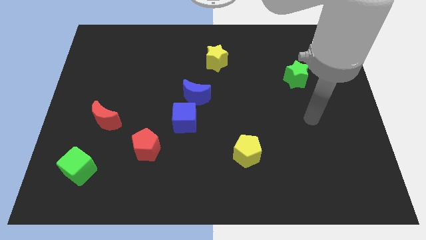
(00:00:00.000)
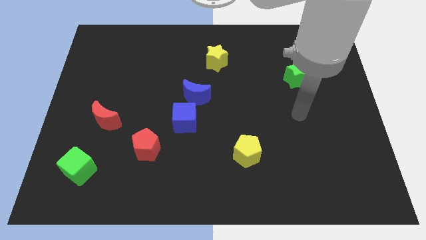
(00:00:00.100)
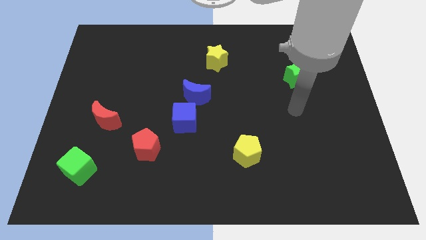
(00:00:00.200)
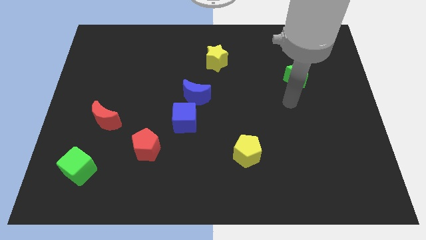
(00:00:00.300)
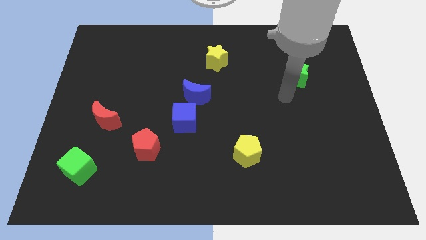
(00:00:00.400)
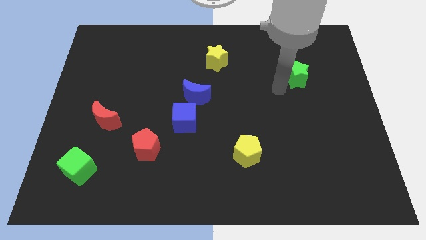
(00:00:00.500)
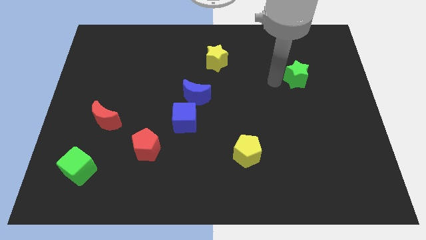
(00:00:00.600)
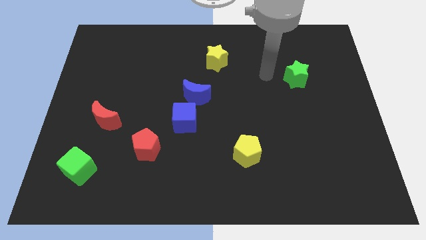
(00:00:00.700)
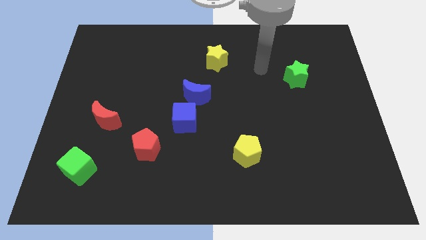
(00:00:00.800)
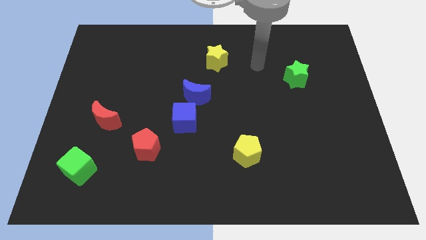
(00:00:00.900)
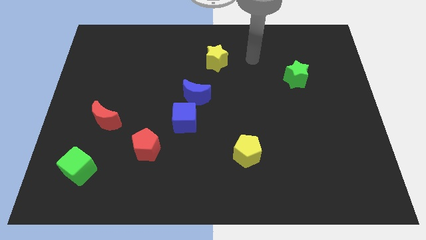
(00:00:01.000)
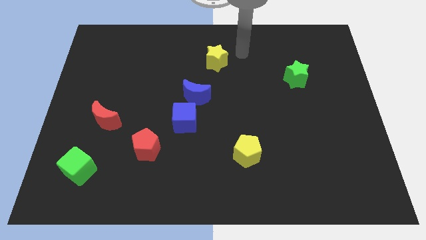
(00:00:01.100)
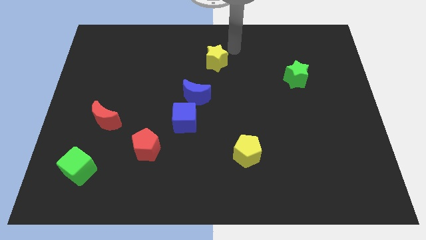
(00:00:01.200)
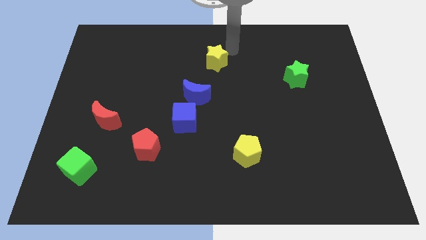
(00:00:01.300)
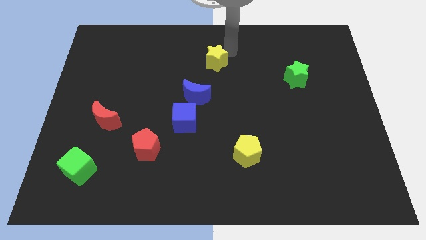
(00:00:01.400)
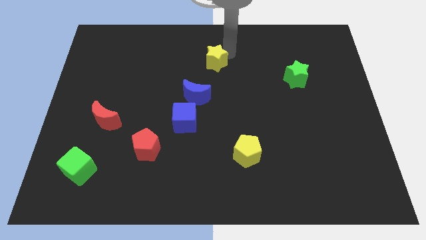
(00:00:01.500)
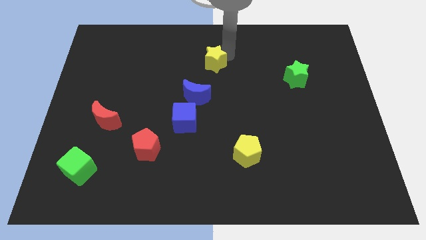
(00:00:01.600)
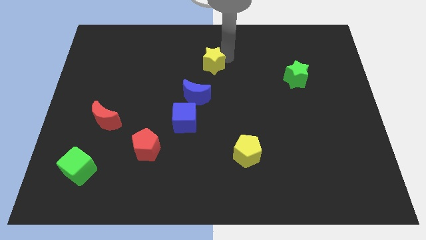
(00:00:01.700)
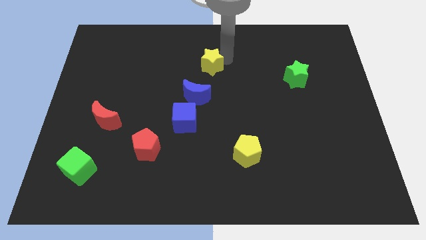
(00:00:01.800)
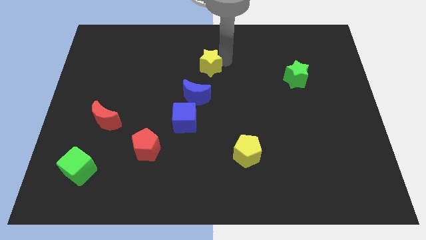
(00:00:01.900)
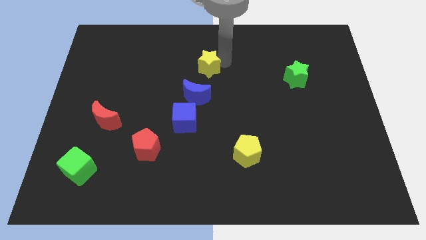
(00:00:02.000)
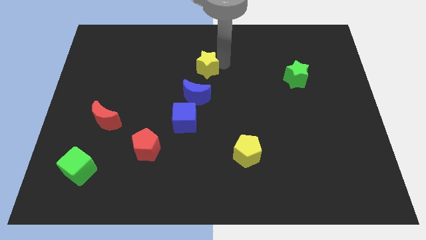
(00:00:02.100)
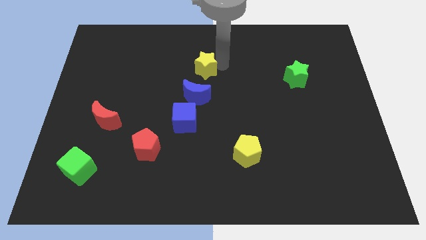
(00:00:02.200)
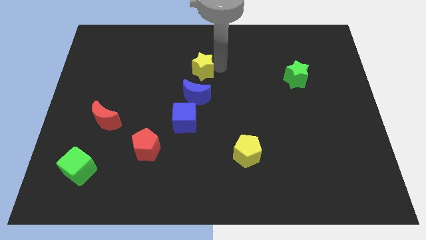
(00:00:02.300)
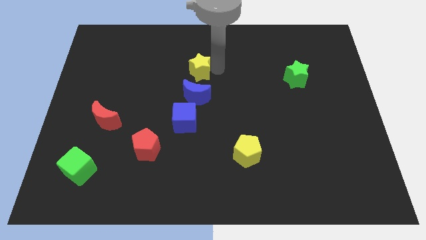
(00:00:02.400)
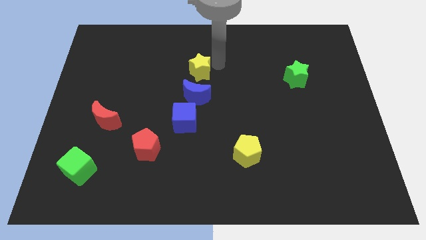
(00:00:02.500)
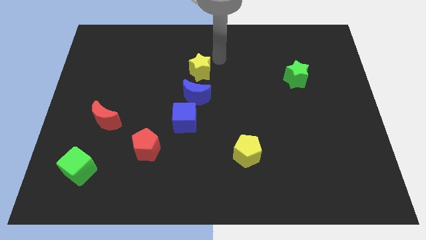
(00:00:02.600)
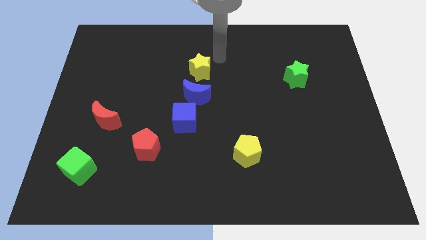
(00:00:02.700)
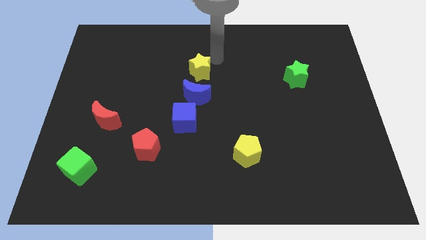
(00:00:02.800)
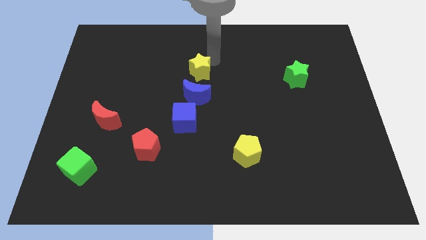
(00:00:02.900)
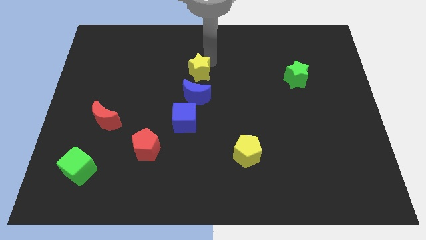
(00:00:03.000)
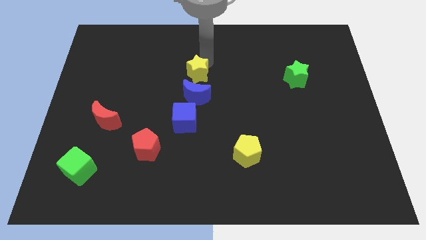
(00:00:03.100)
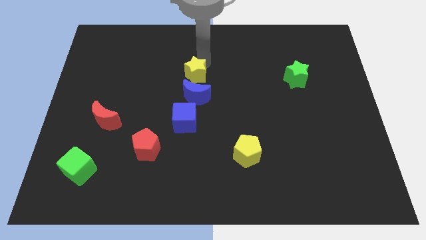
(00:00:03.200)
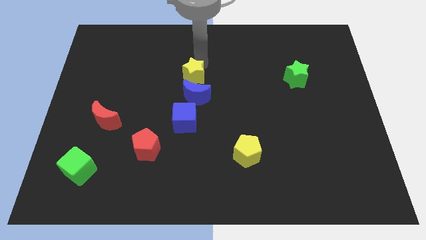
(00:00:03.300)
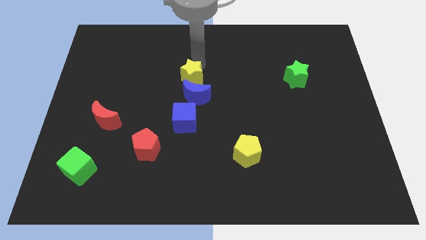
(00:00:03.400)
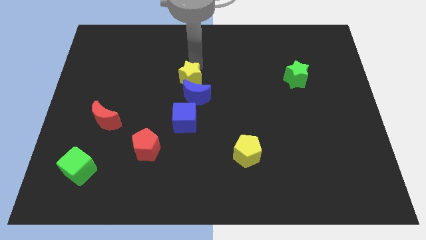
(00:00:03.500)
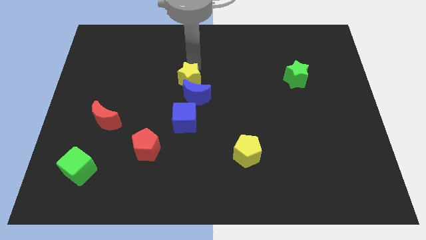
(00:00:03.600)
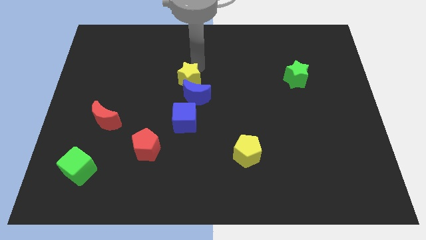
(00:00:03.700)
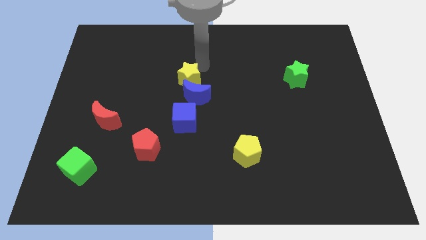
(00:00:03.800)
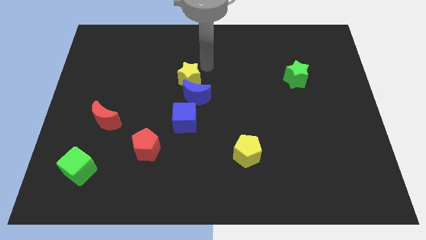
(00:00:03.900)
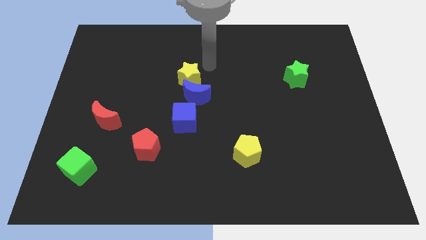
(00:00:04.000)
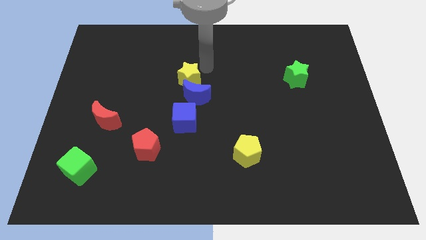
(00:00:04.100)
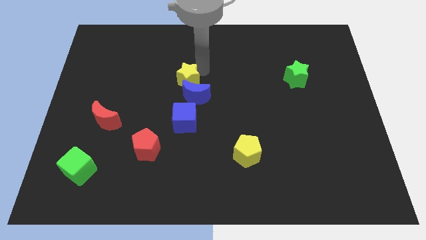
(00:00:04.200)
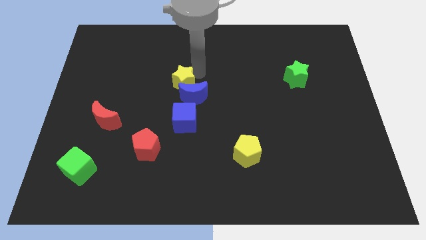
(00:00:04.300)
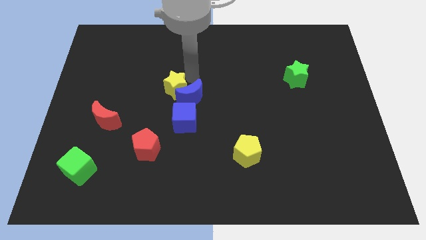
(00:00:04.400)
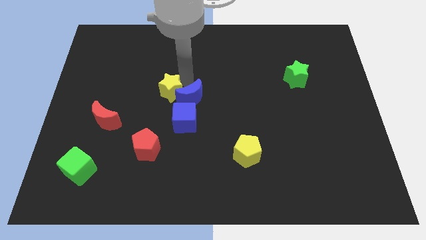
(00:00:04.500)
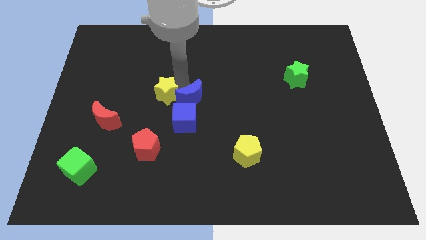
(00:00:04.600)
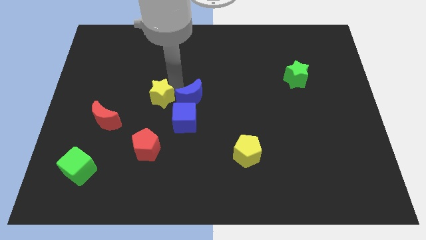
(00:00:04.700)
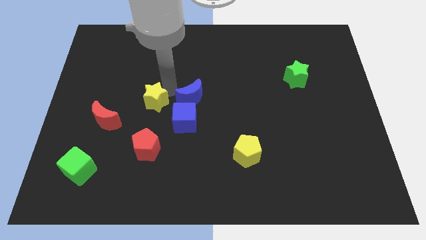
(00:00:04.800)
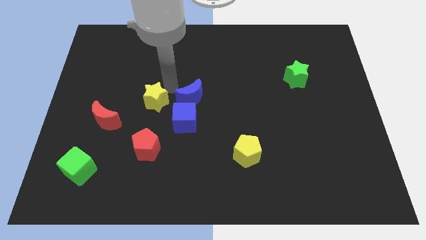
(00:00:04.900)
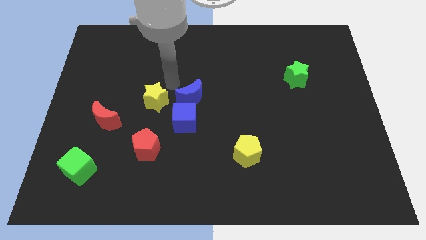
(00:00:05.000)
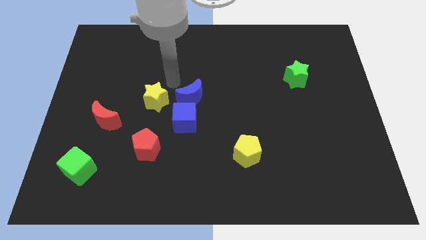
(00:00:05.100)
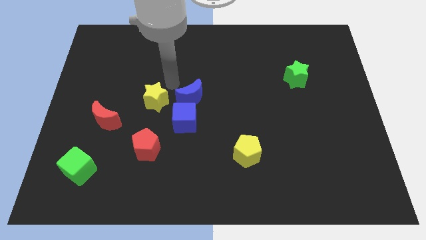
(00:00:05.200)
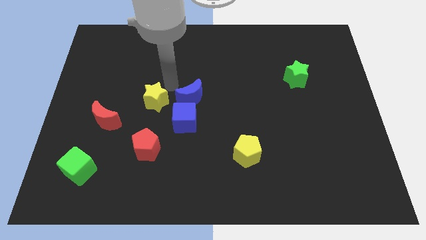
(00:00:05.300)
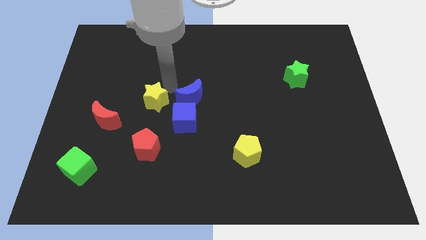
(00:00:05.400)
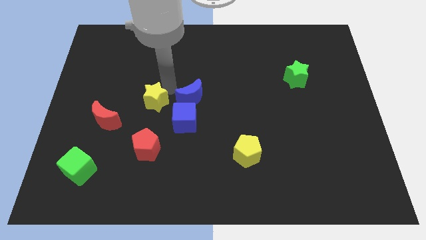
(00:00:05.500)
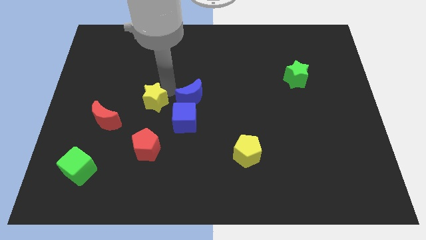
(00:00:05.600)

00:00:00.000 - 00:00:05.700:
move the yellow star diagonally down and left

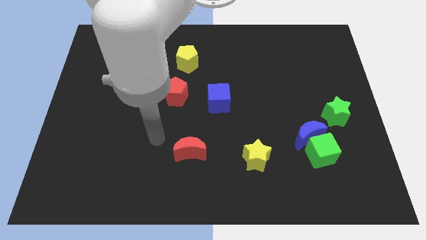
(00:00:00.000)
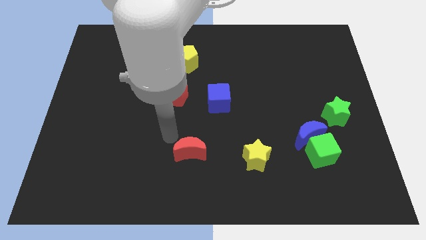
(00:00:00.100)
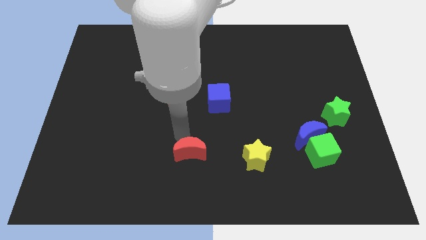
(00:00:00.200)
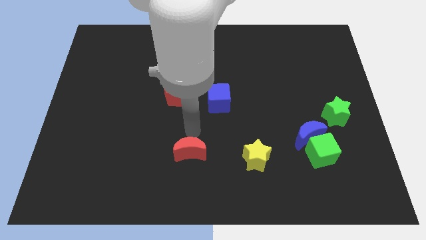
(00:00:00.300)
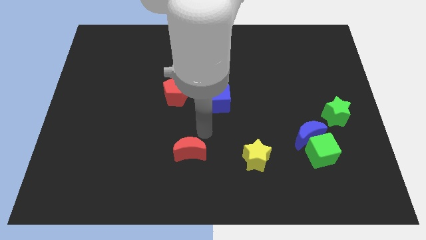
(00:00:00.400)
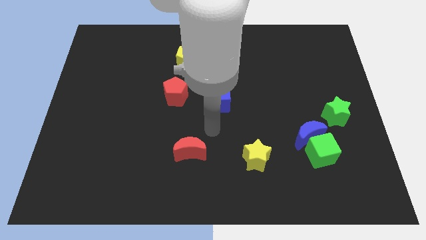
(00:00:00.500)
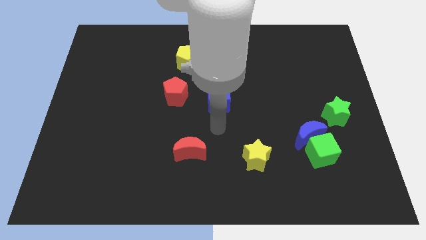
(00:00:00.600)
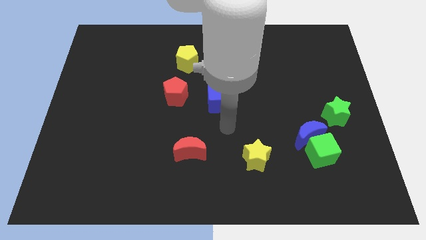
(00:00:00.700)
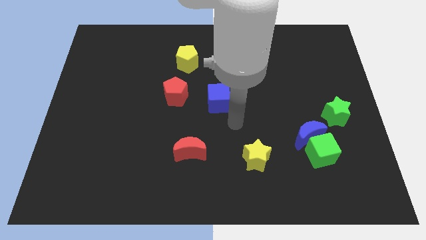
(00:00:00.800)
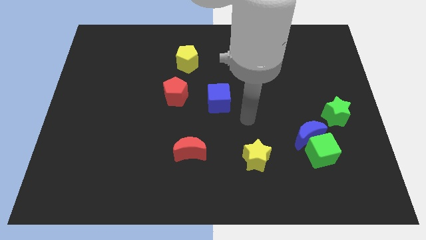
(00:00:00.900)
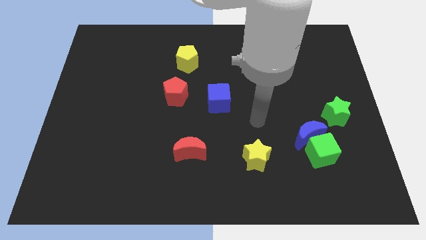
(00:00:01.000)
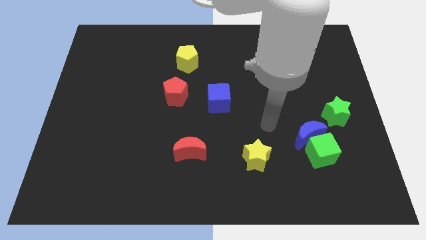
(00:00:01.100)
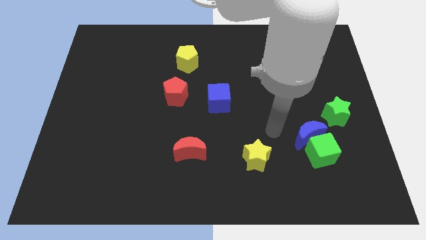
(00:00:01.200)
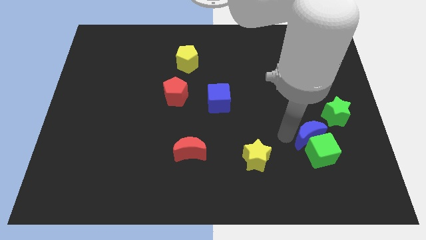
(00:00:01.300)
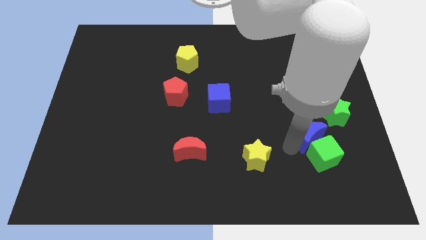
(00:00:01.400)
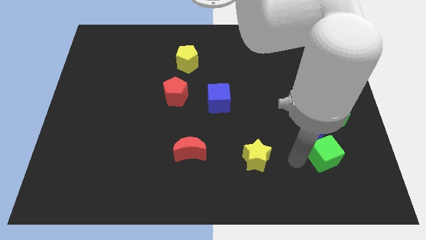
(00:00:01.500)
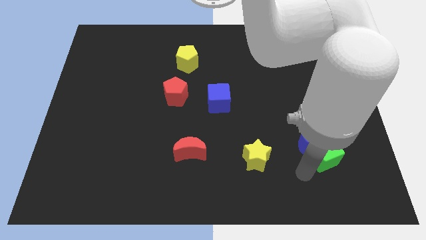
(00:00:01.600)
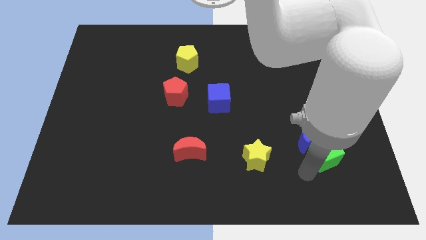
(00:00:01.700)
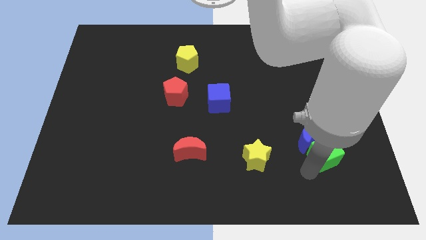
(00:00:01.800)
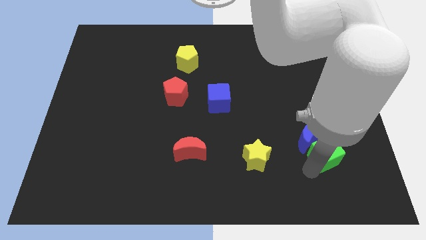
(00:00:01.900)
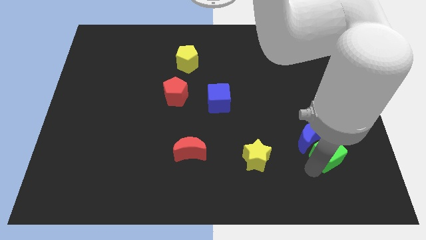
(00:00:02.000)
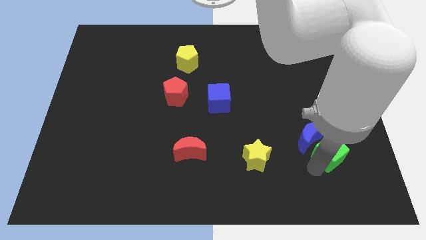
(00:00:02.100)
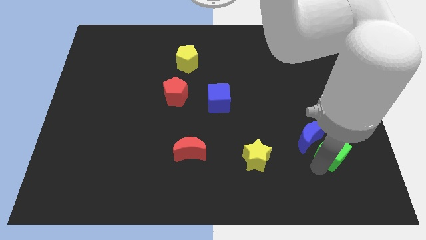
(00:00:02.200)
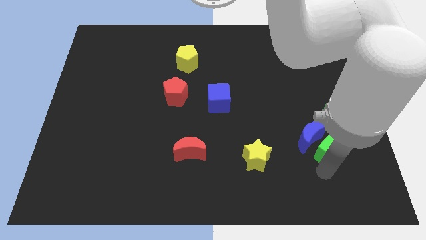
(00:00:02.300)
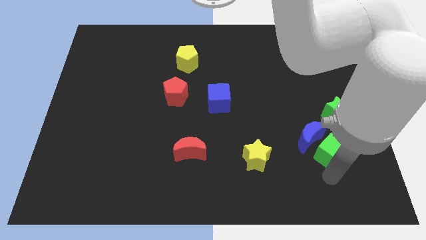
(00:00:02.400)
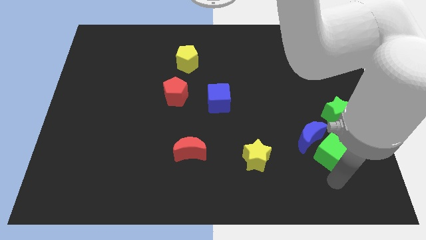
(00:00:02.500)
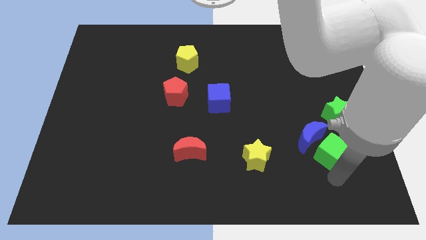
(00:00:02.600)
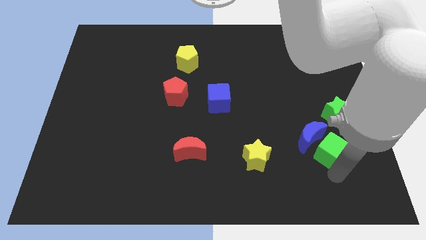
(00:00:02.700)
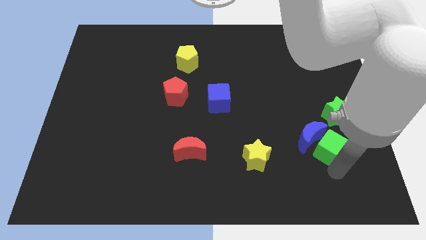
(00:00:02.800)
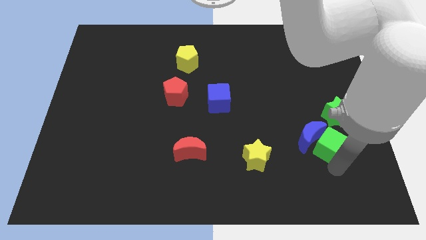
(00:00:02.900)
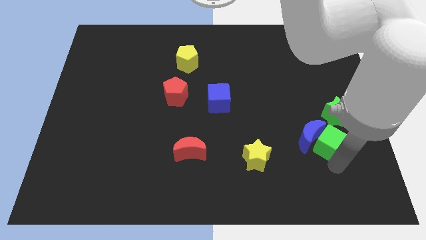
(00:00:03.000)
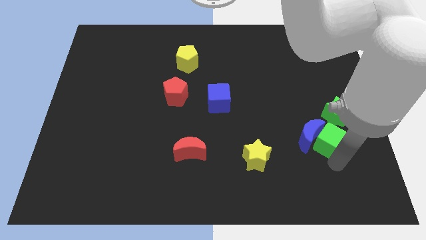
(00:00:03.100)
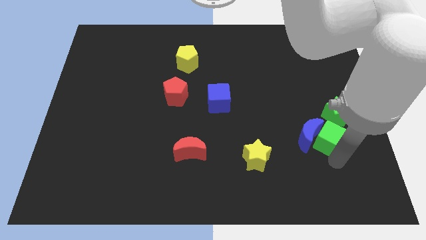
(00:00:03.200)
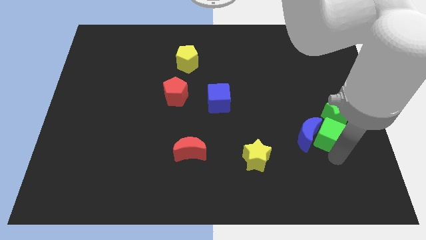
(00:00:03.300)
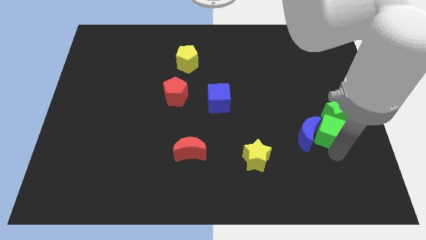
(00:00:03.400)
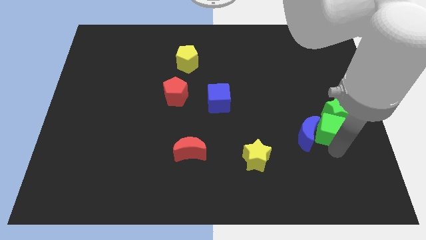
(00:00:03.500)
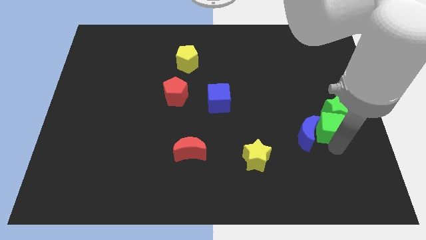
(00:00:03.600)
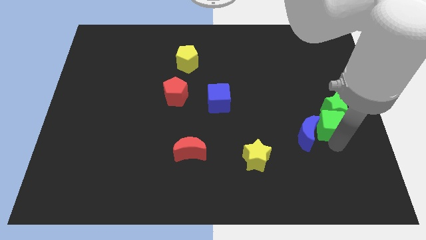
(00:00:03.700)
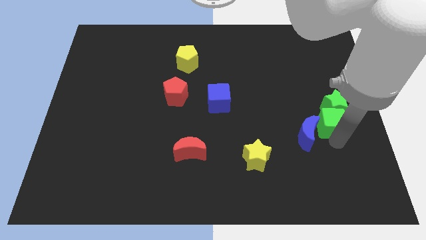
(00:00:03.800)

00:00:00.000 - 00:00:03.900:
push the green cube slightly upwards
